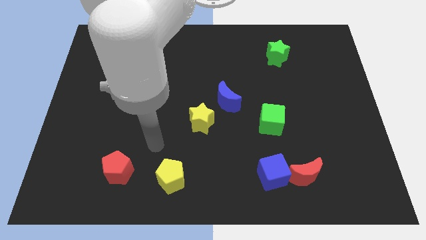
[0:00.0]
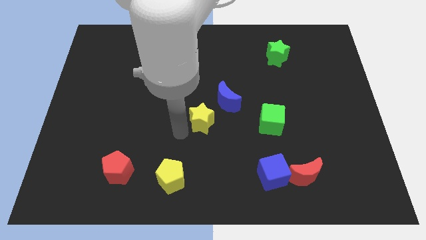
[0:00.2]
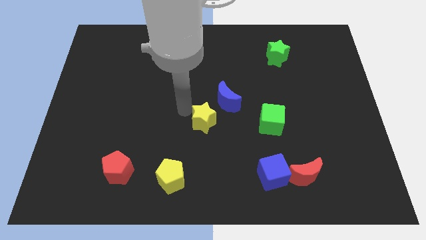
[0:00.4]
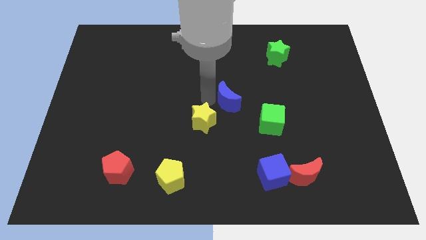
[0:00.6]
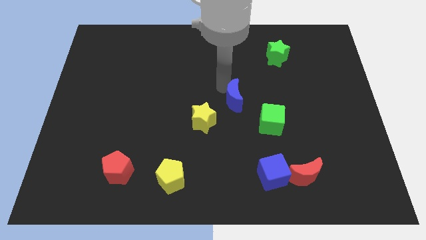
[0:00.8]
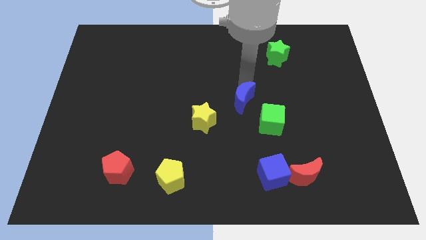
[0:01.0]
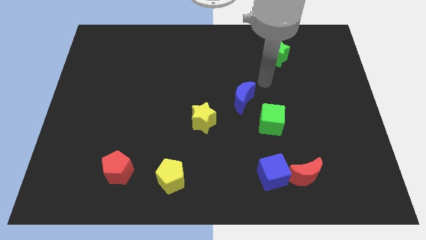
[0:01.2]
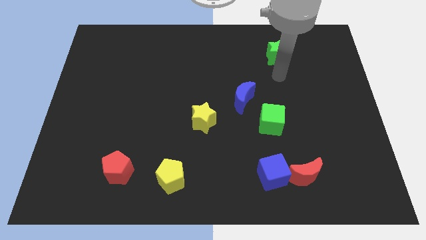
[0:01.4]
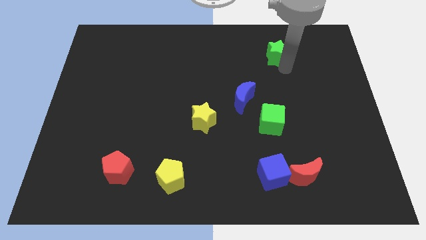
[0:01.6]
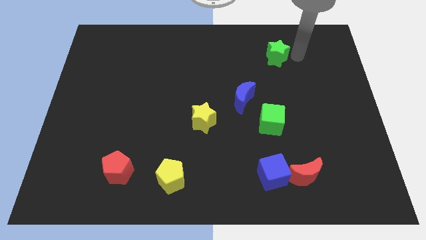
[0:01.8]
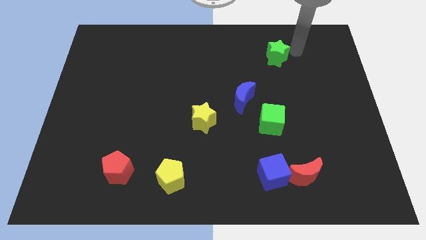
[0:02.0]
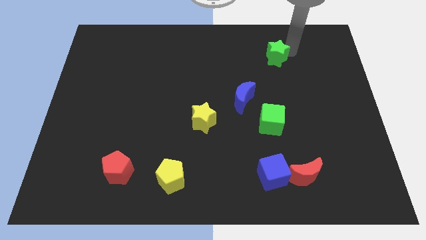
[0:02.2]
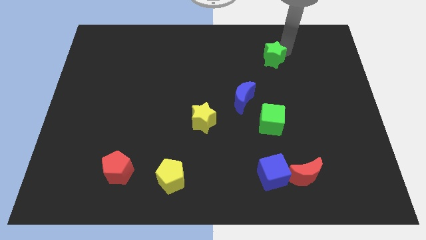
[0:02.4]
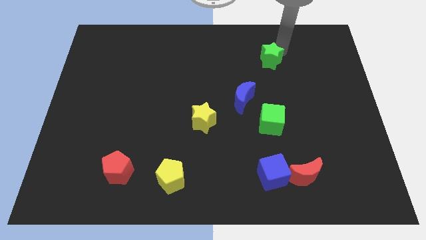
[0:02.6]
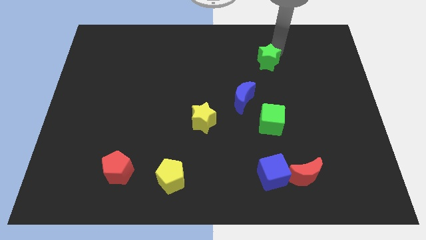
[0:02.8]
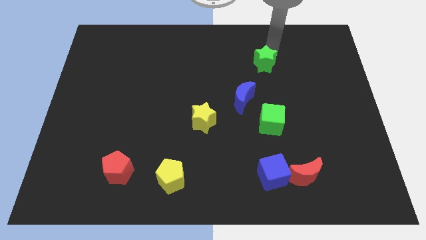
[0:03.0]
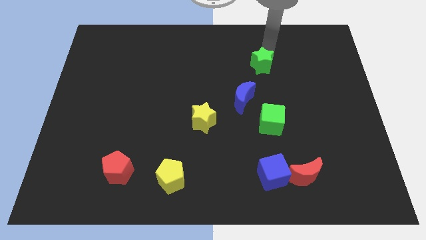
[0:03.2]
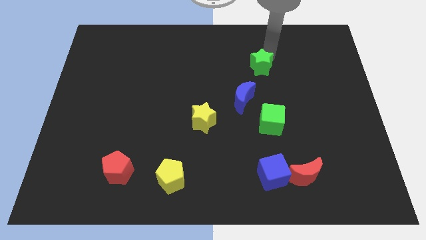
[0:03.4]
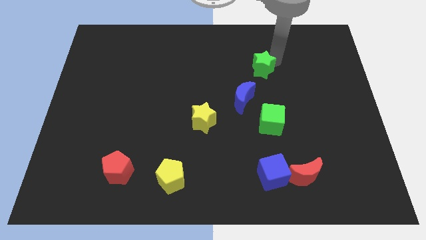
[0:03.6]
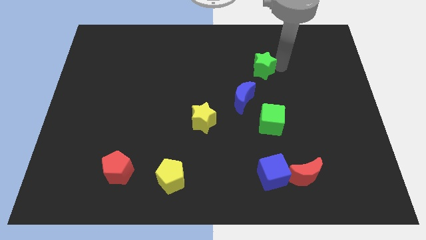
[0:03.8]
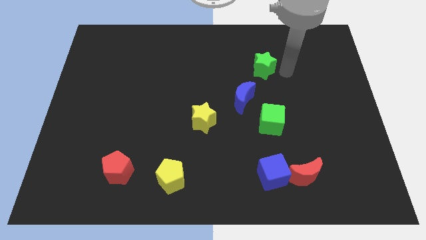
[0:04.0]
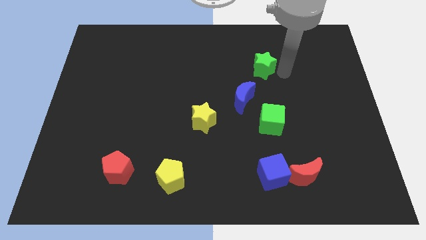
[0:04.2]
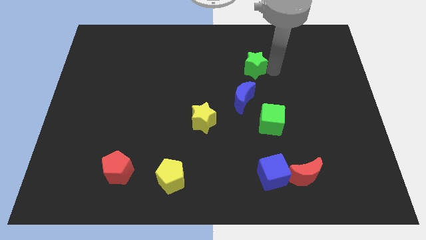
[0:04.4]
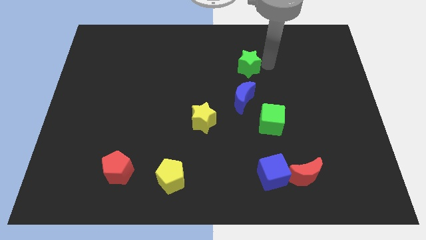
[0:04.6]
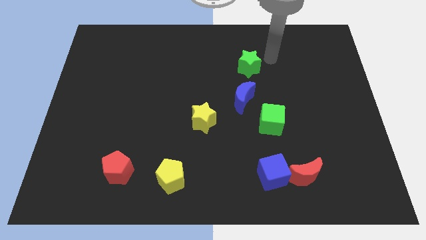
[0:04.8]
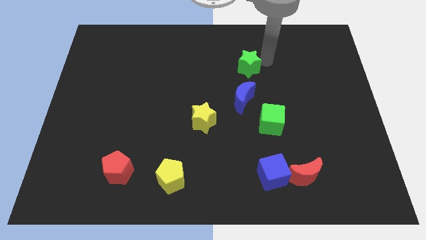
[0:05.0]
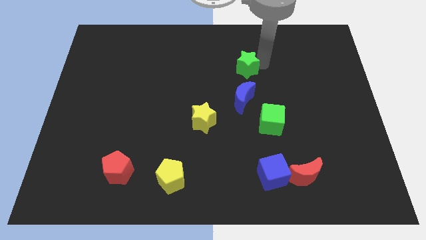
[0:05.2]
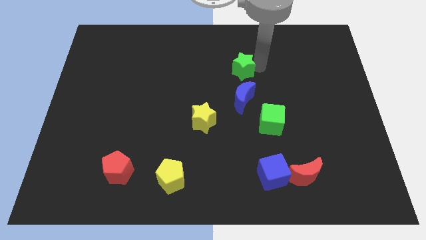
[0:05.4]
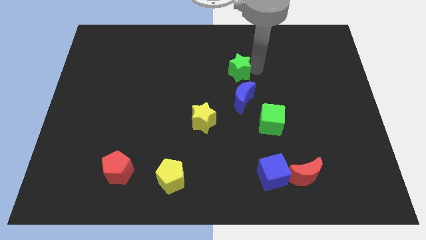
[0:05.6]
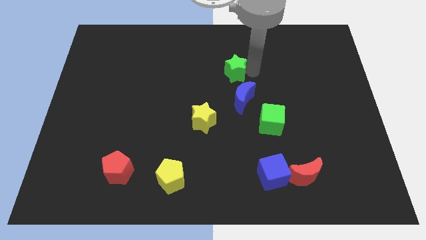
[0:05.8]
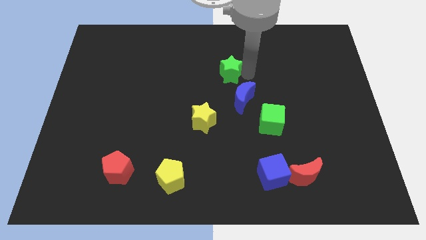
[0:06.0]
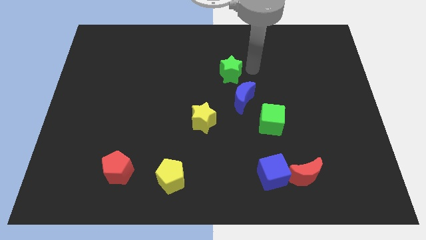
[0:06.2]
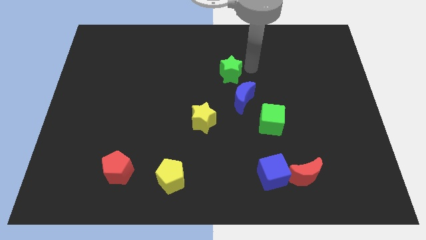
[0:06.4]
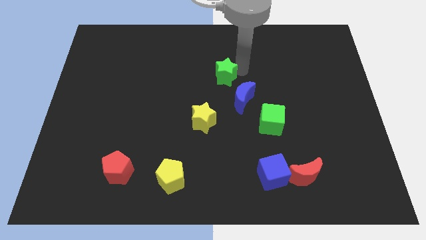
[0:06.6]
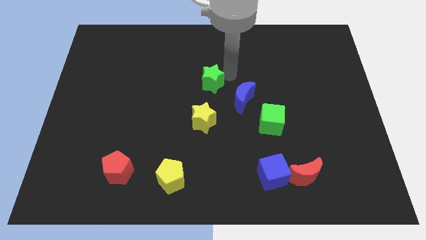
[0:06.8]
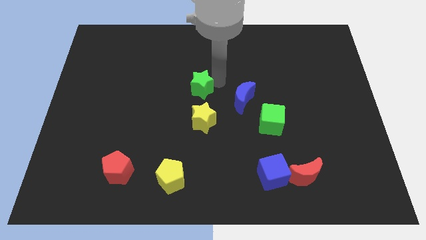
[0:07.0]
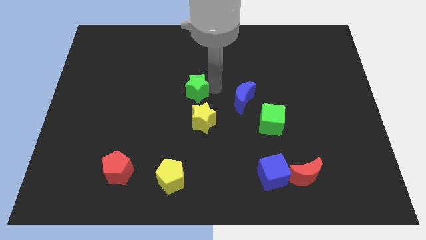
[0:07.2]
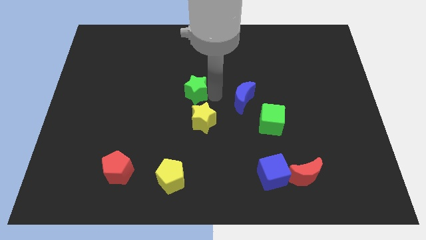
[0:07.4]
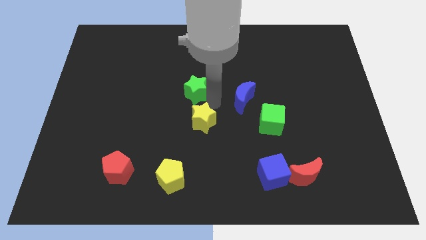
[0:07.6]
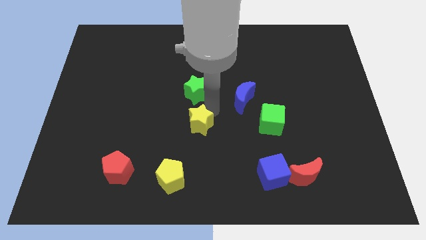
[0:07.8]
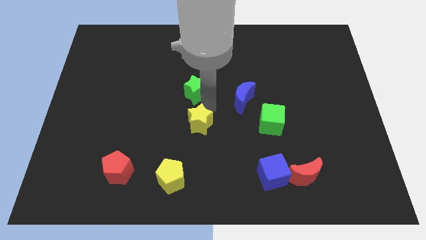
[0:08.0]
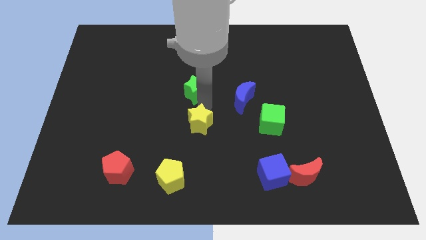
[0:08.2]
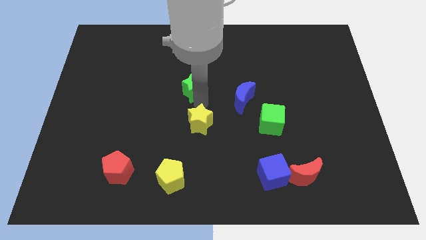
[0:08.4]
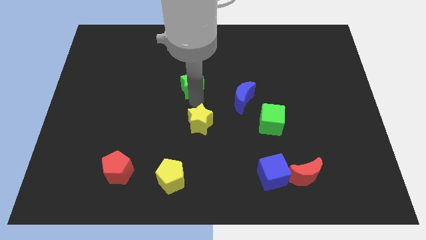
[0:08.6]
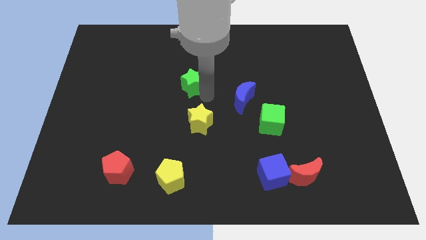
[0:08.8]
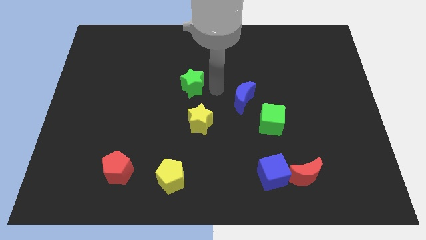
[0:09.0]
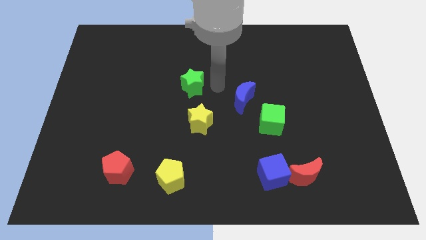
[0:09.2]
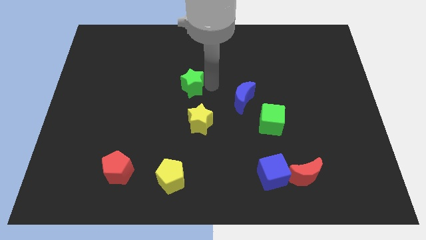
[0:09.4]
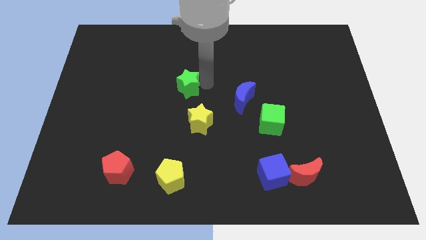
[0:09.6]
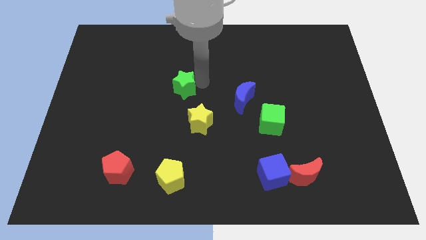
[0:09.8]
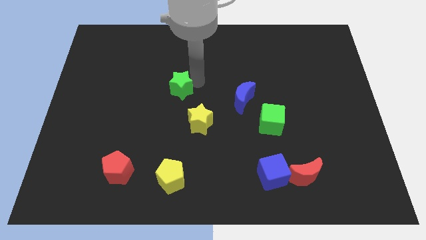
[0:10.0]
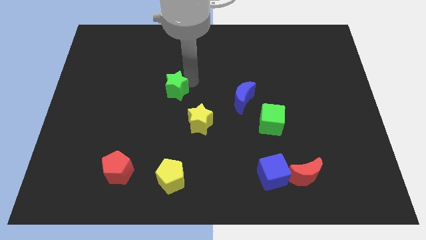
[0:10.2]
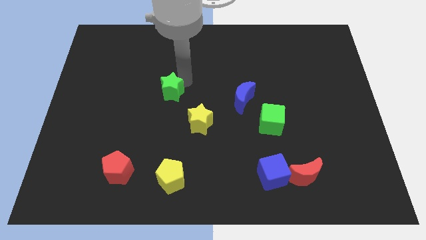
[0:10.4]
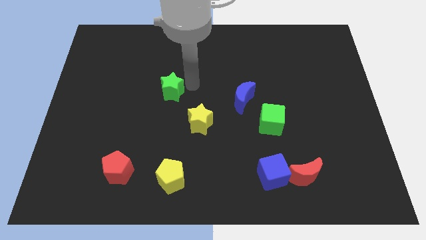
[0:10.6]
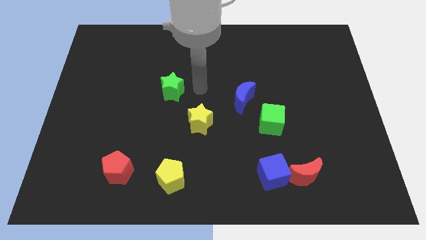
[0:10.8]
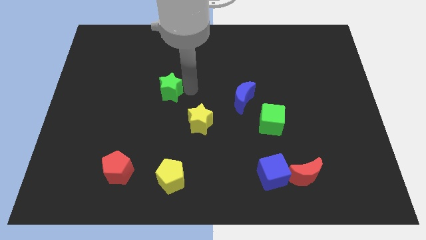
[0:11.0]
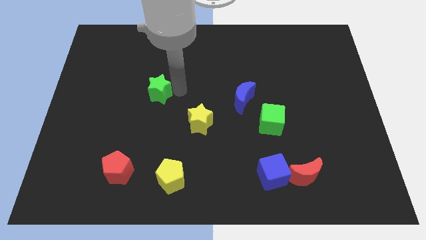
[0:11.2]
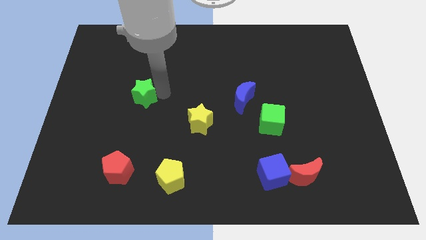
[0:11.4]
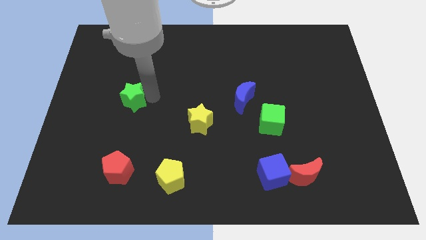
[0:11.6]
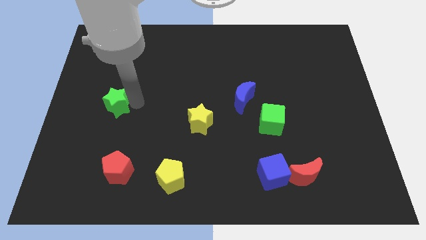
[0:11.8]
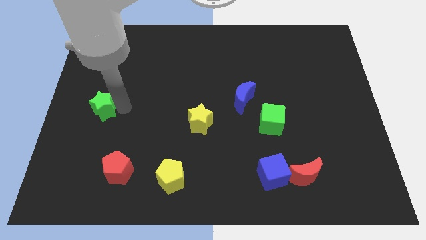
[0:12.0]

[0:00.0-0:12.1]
push the green star to the center left

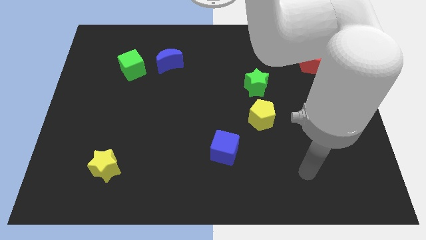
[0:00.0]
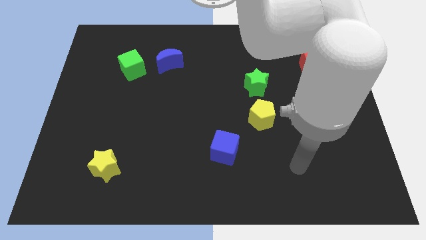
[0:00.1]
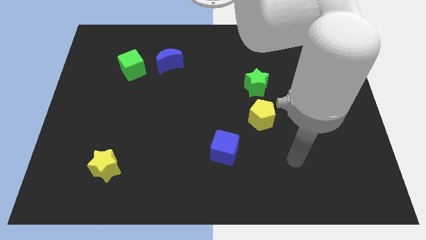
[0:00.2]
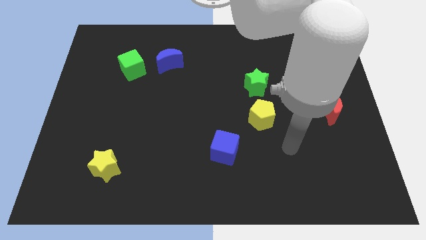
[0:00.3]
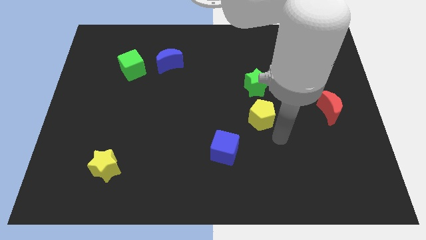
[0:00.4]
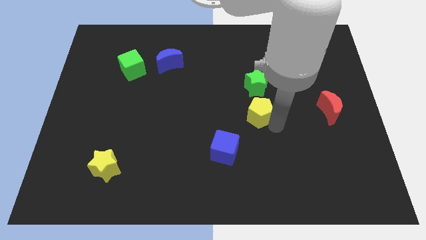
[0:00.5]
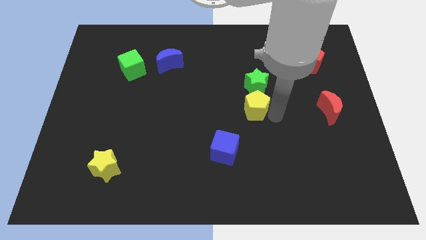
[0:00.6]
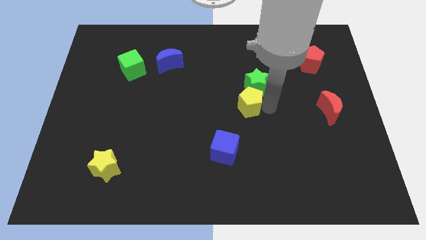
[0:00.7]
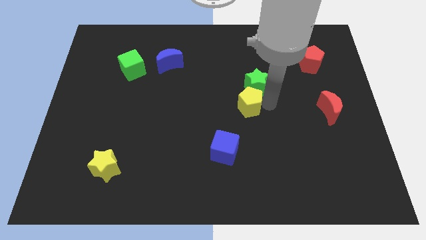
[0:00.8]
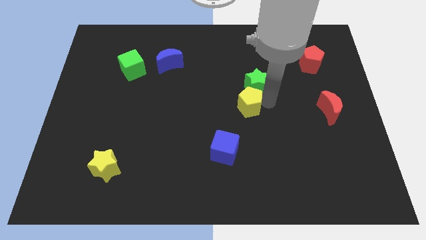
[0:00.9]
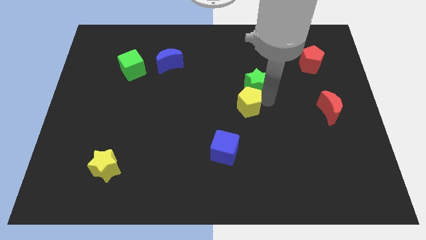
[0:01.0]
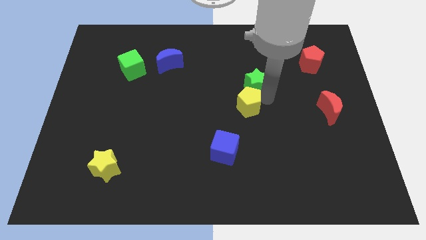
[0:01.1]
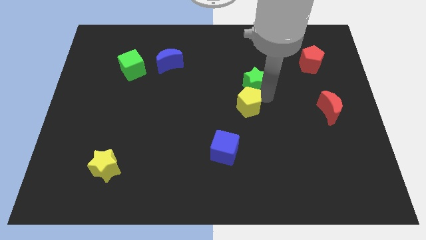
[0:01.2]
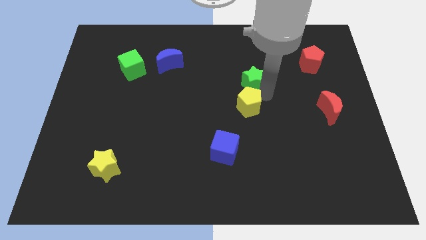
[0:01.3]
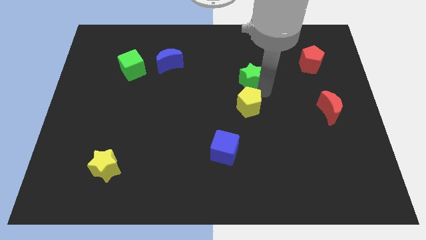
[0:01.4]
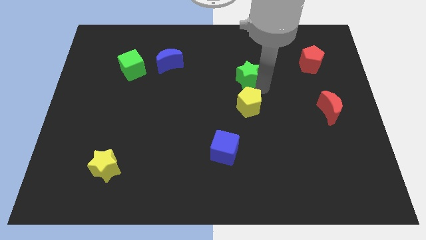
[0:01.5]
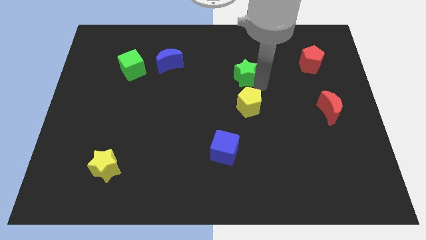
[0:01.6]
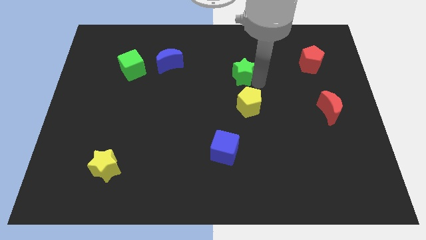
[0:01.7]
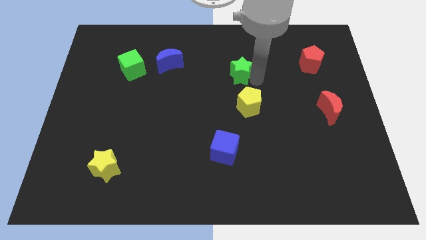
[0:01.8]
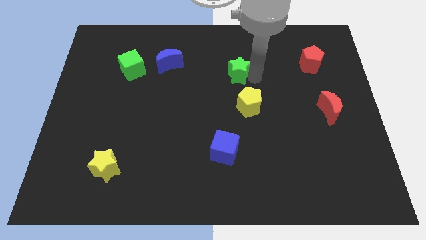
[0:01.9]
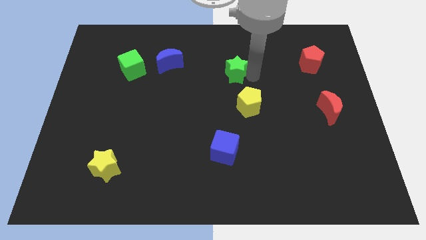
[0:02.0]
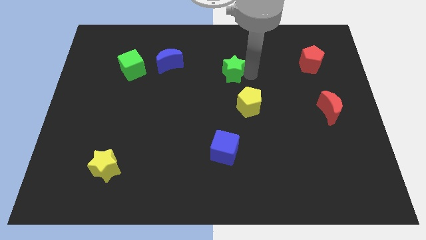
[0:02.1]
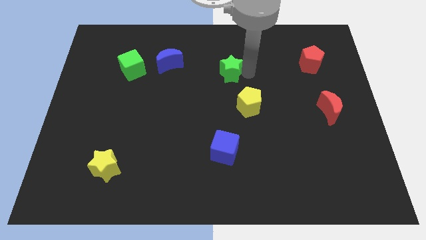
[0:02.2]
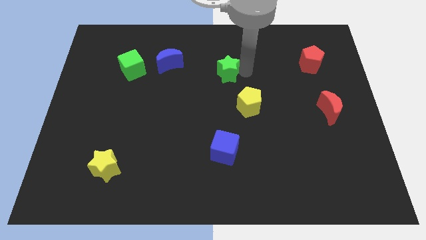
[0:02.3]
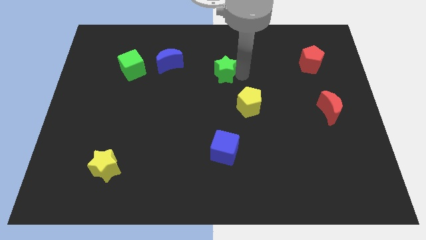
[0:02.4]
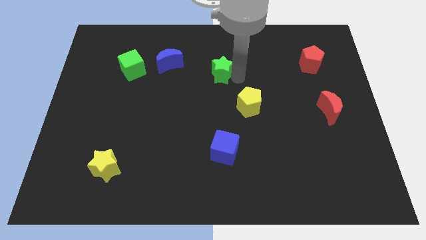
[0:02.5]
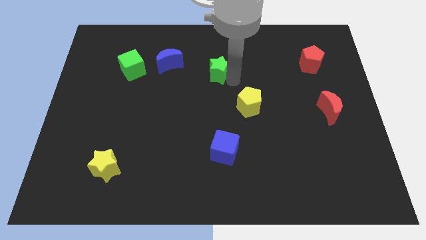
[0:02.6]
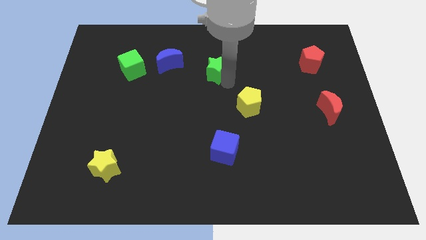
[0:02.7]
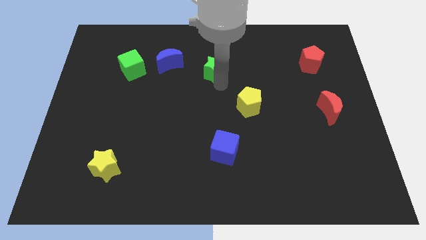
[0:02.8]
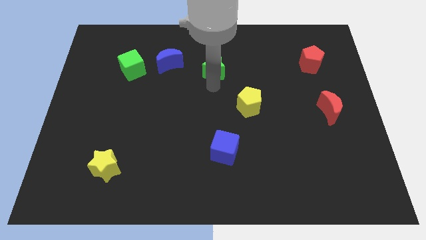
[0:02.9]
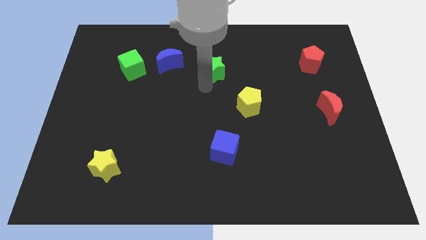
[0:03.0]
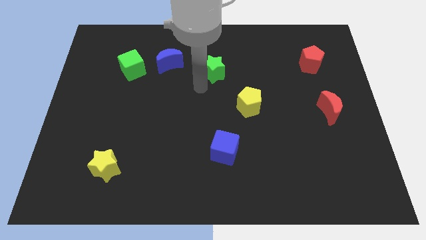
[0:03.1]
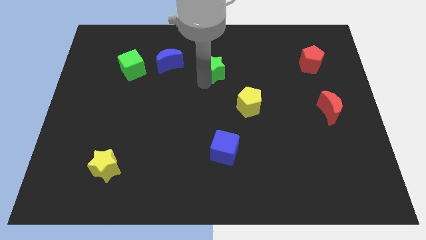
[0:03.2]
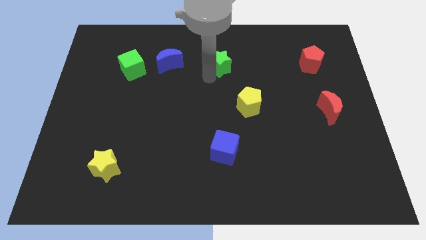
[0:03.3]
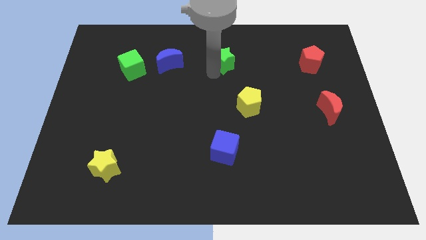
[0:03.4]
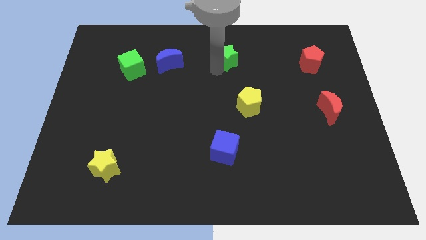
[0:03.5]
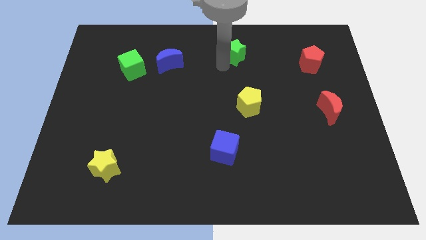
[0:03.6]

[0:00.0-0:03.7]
push the green star to the top
